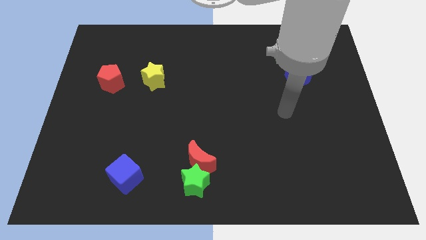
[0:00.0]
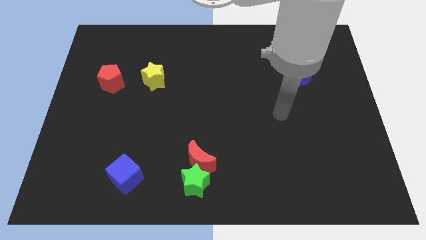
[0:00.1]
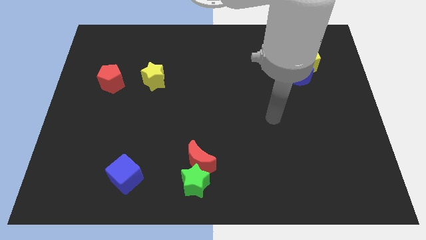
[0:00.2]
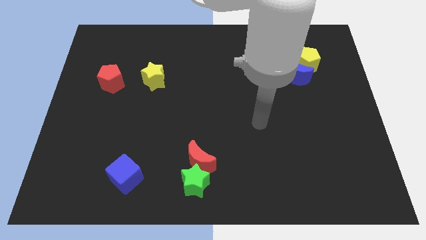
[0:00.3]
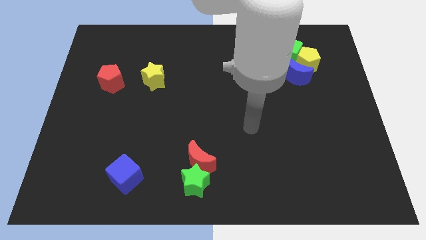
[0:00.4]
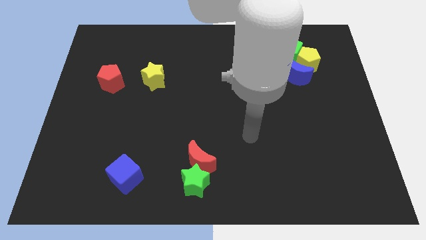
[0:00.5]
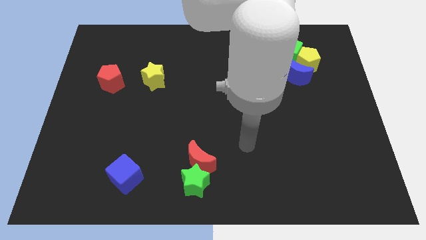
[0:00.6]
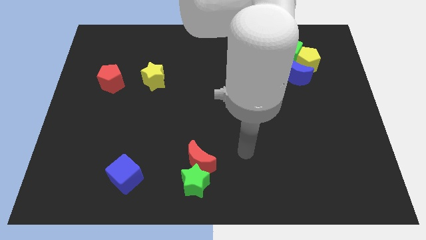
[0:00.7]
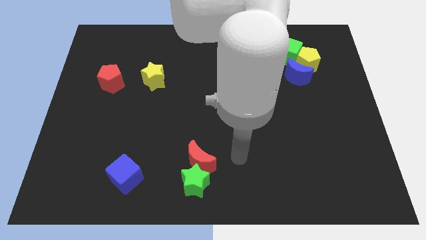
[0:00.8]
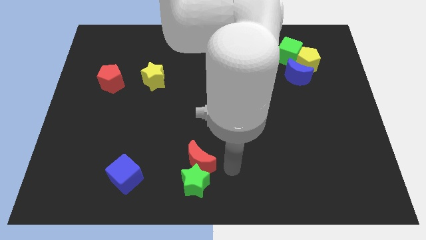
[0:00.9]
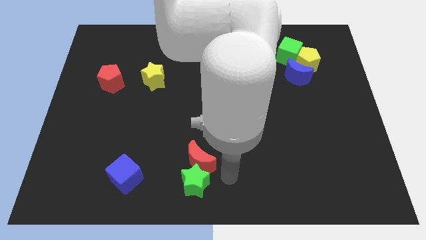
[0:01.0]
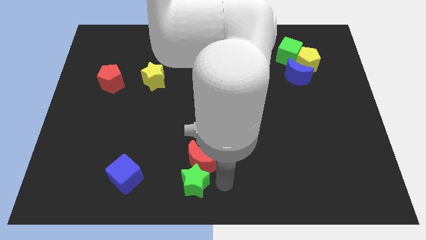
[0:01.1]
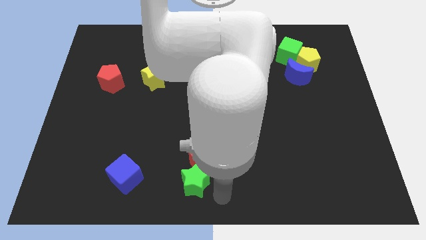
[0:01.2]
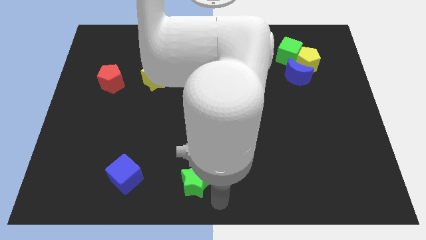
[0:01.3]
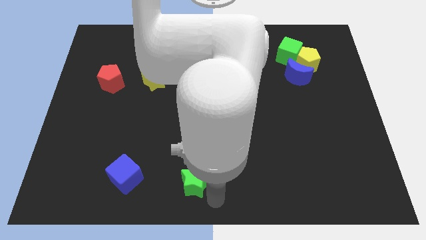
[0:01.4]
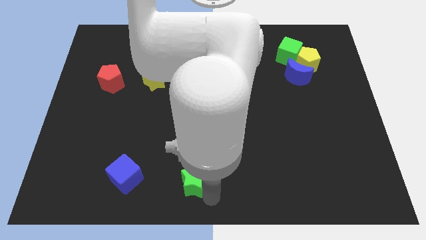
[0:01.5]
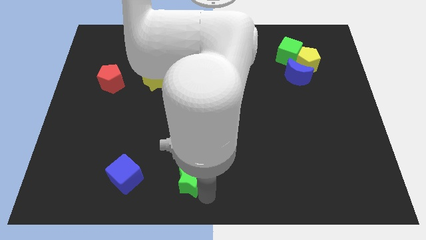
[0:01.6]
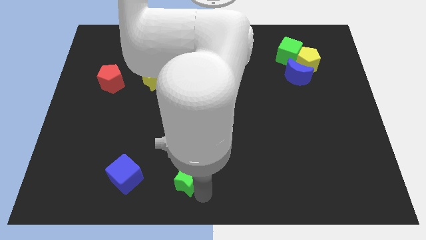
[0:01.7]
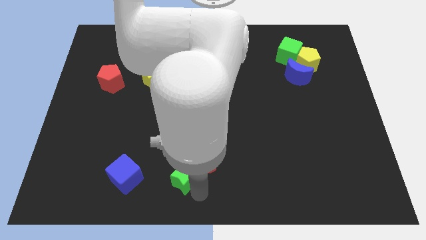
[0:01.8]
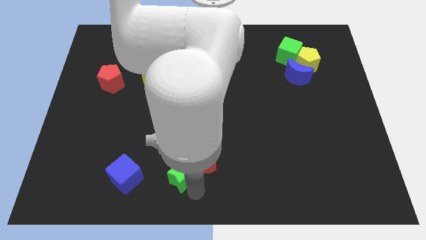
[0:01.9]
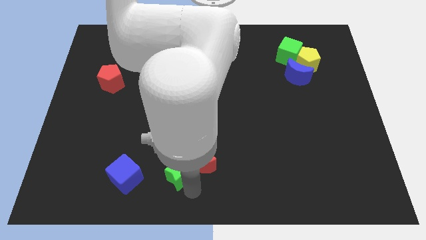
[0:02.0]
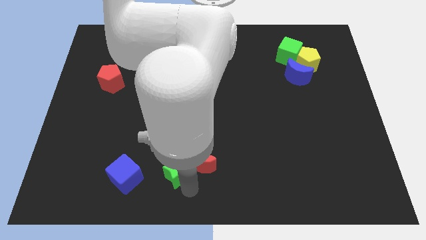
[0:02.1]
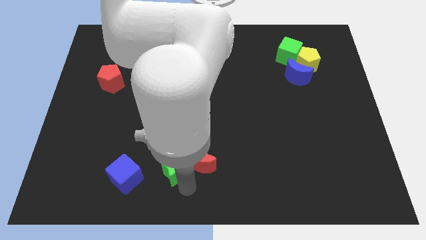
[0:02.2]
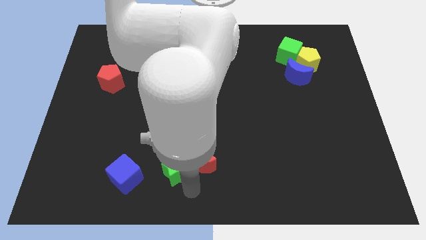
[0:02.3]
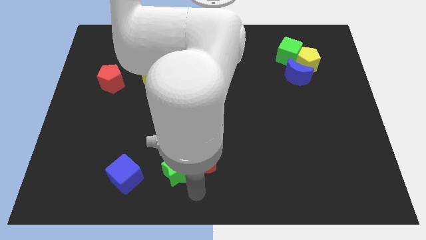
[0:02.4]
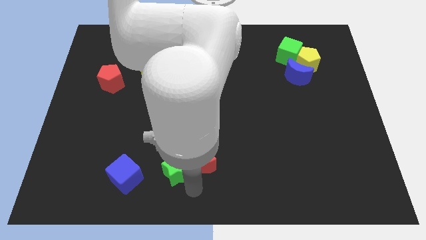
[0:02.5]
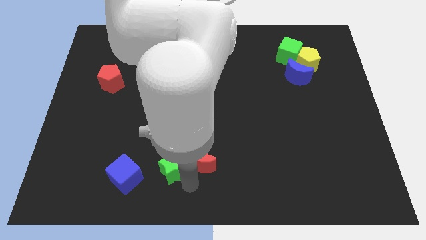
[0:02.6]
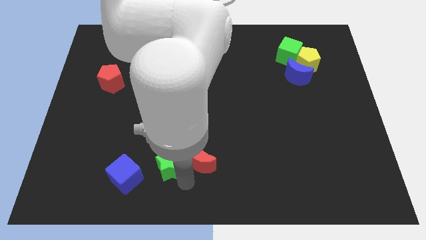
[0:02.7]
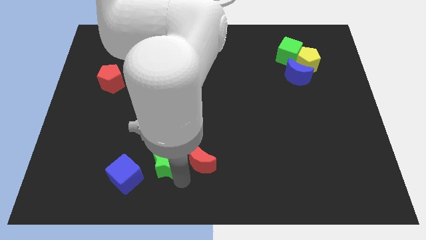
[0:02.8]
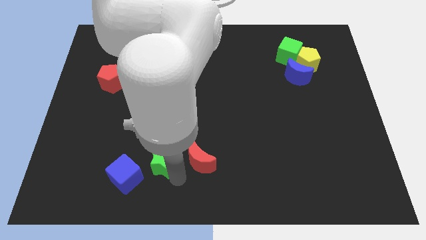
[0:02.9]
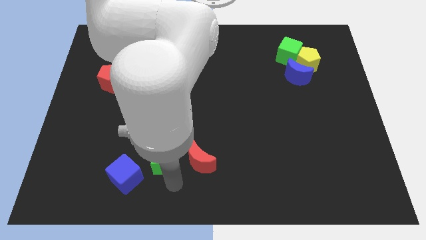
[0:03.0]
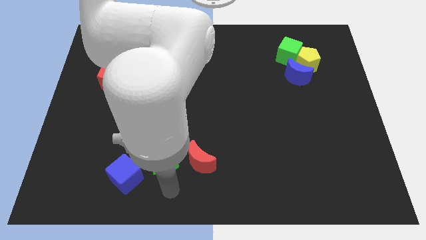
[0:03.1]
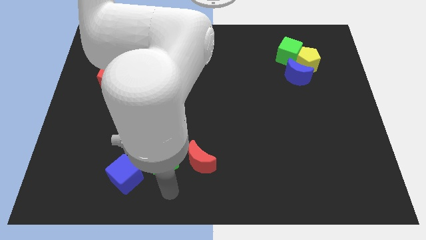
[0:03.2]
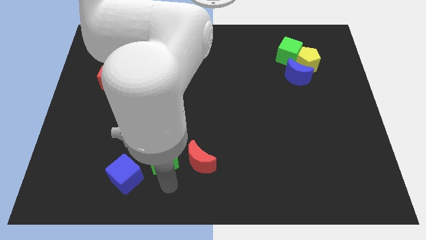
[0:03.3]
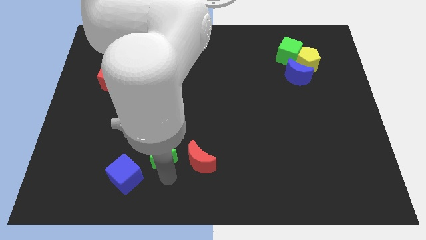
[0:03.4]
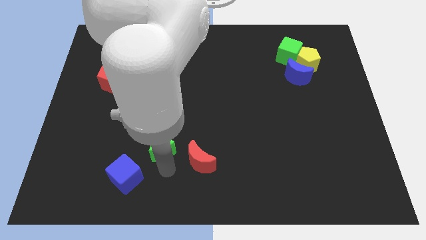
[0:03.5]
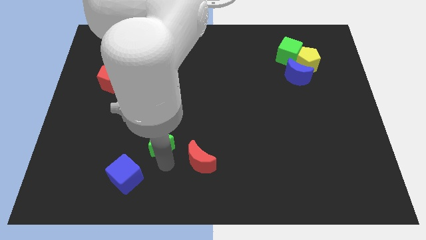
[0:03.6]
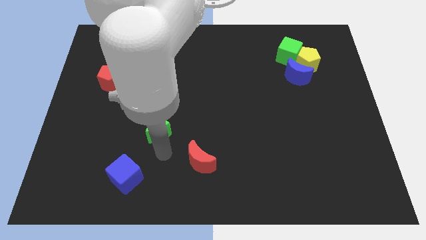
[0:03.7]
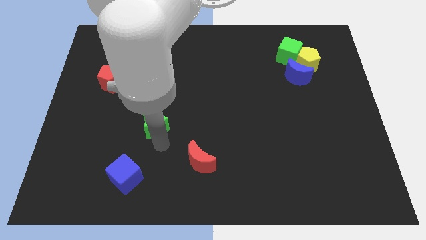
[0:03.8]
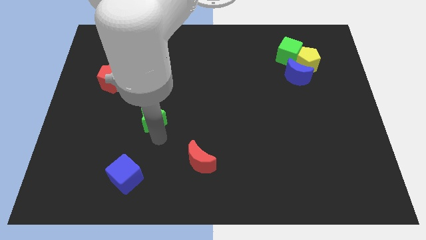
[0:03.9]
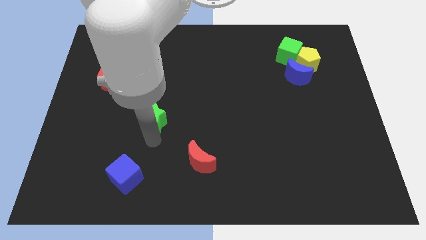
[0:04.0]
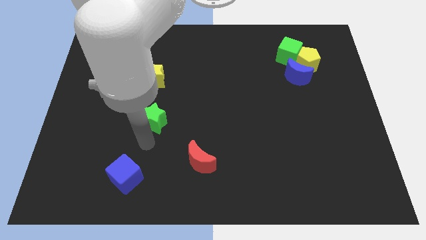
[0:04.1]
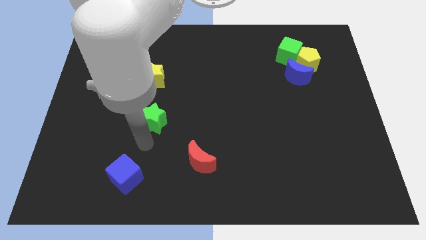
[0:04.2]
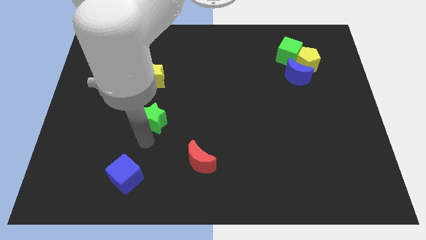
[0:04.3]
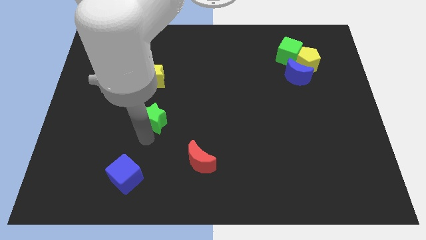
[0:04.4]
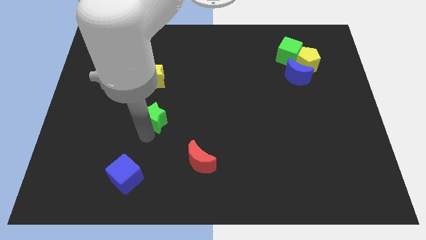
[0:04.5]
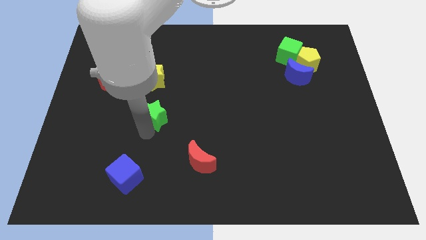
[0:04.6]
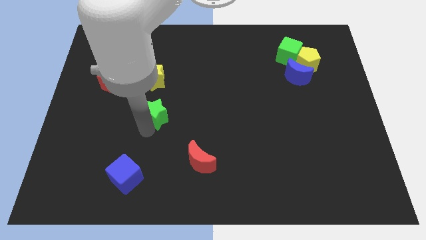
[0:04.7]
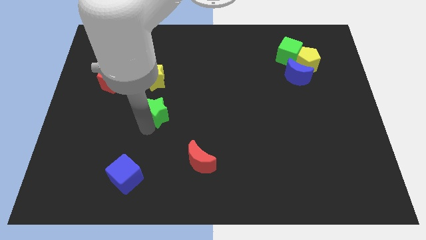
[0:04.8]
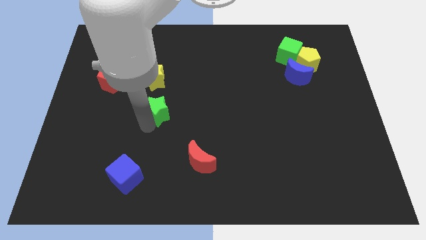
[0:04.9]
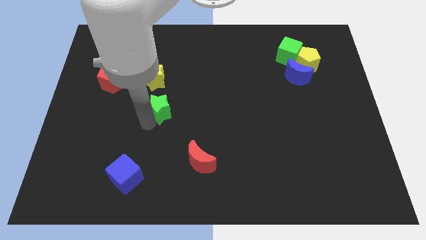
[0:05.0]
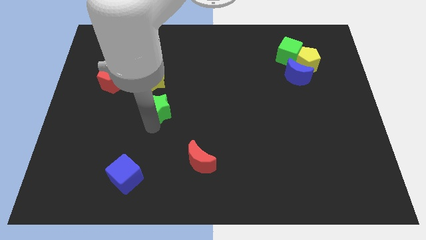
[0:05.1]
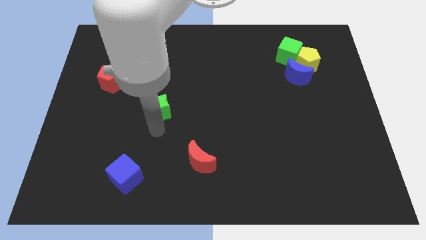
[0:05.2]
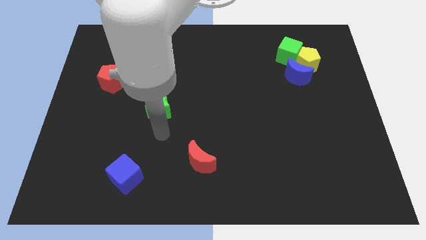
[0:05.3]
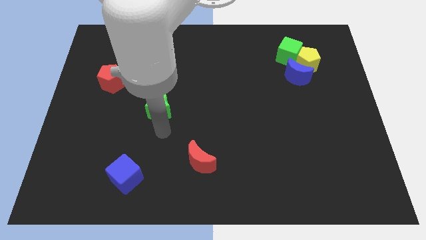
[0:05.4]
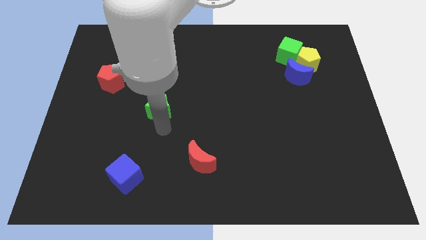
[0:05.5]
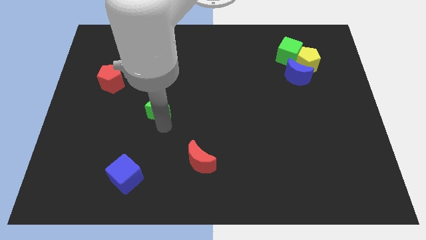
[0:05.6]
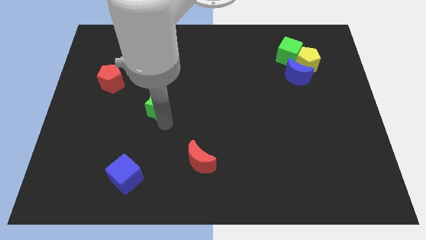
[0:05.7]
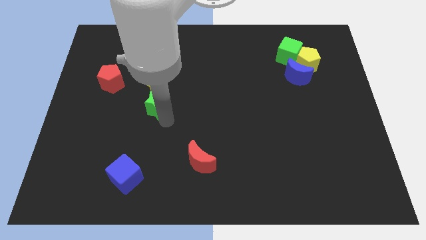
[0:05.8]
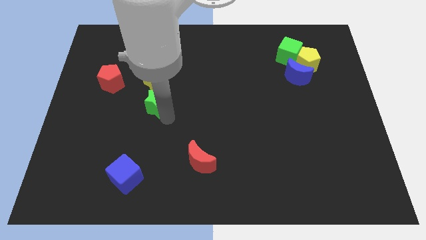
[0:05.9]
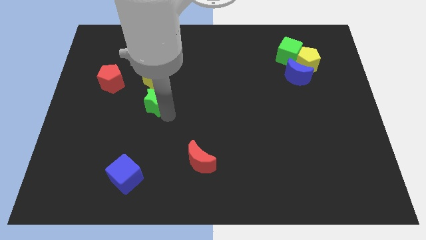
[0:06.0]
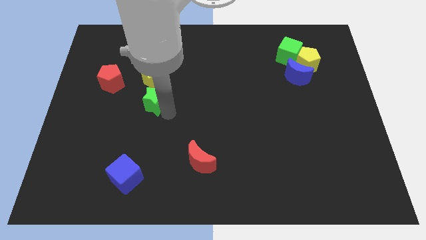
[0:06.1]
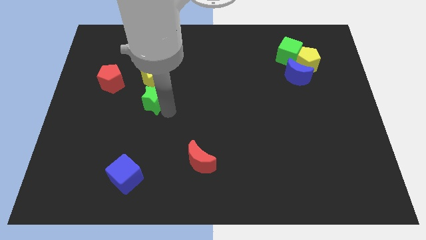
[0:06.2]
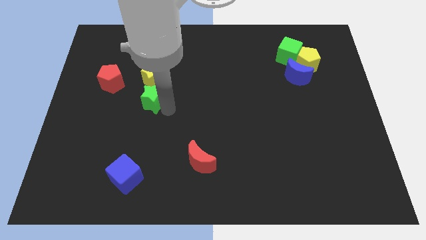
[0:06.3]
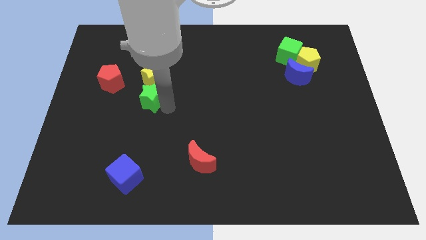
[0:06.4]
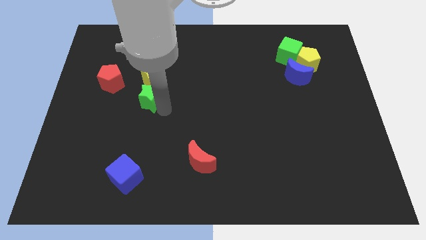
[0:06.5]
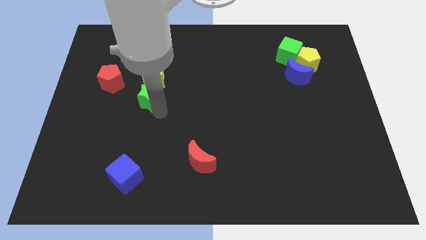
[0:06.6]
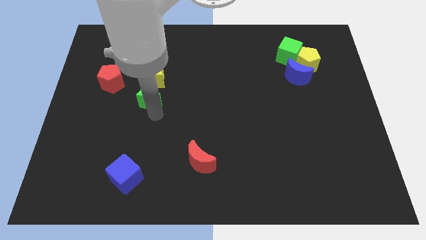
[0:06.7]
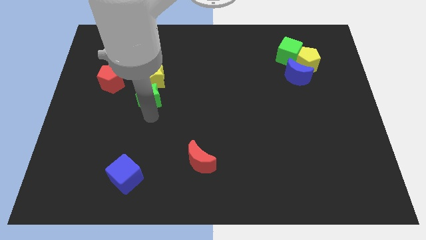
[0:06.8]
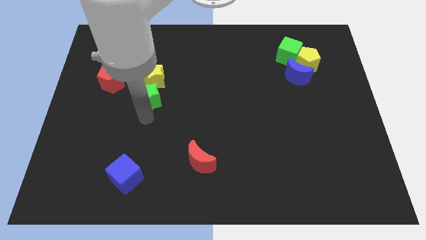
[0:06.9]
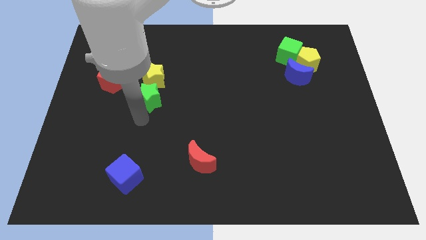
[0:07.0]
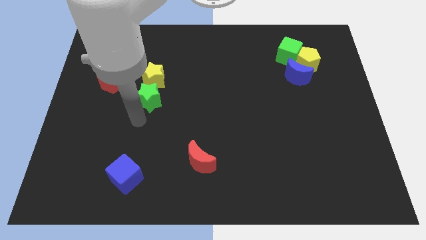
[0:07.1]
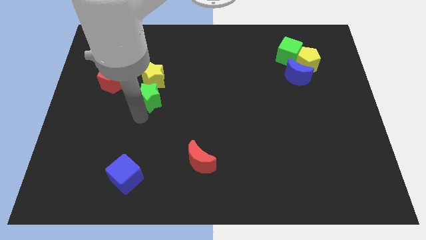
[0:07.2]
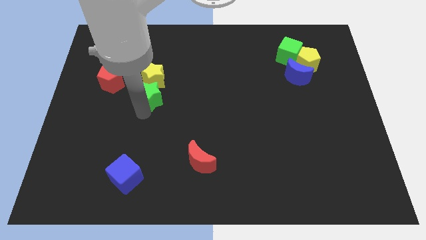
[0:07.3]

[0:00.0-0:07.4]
move the green star close to the yellow star
